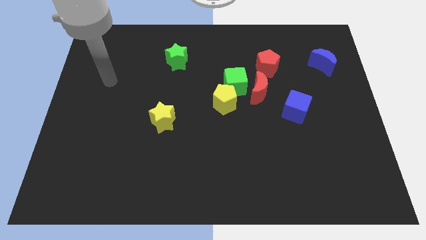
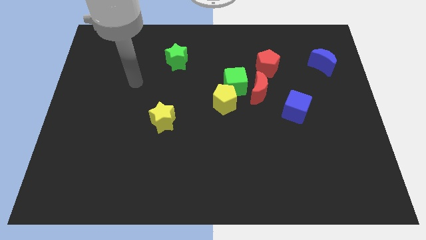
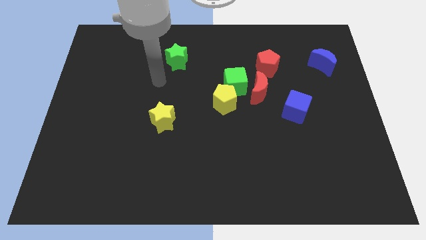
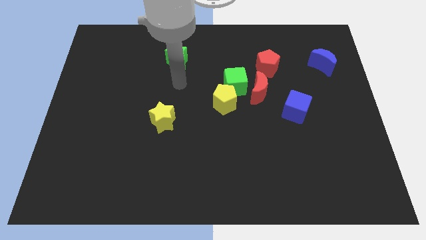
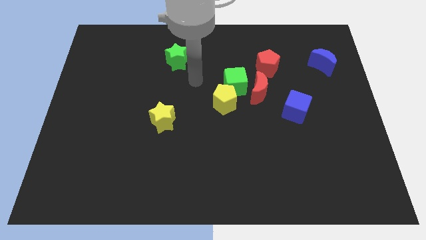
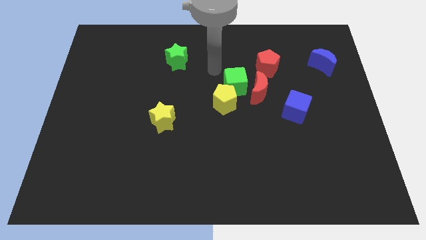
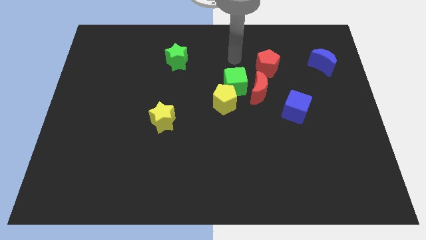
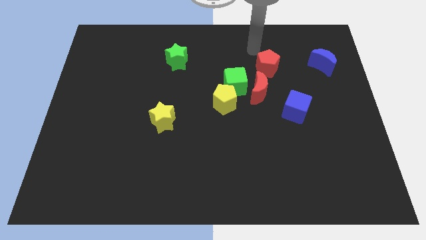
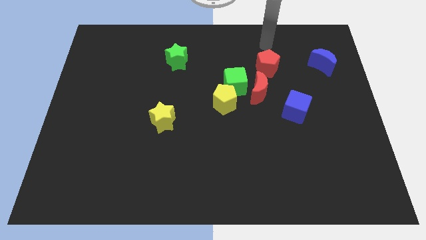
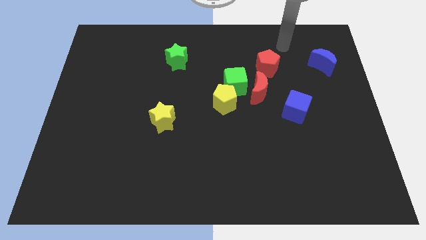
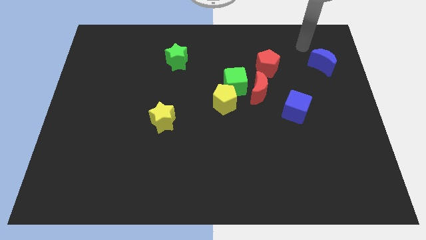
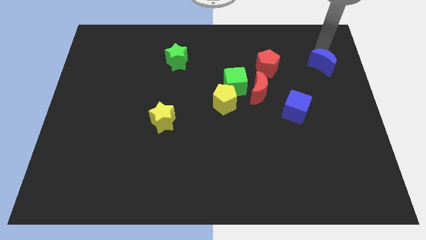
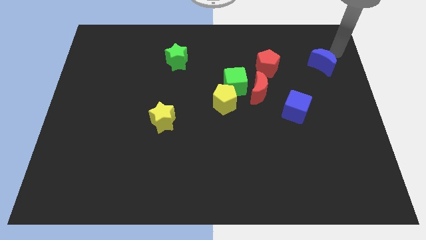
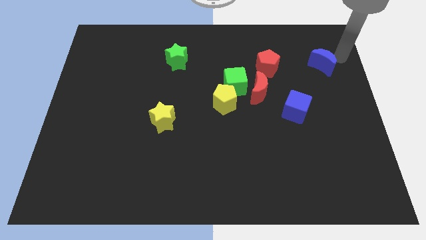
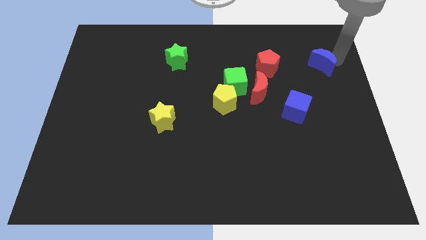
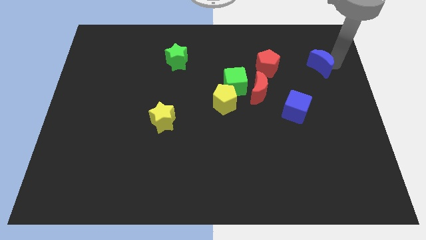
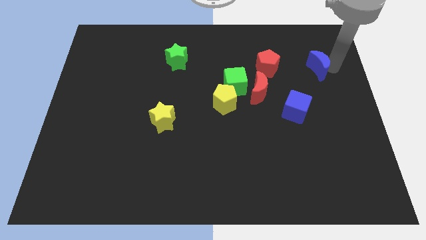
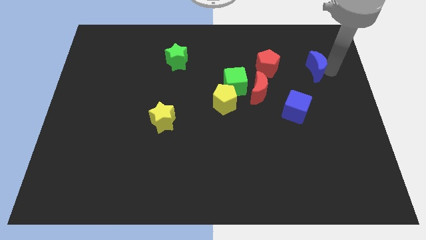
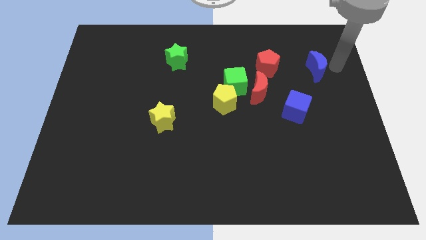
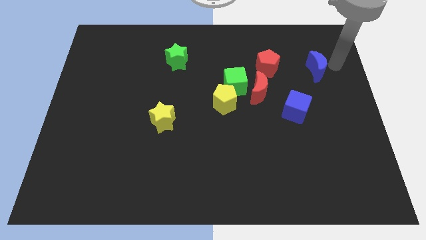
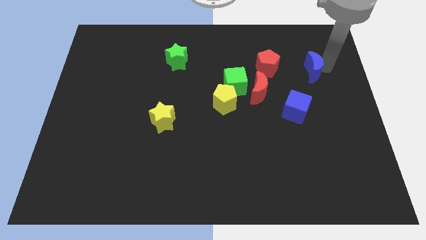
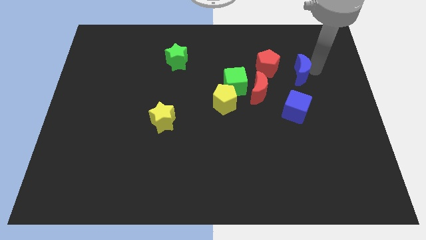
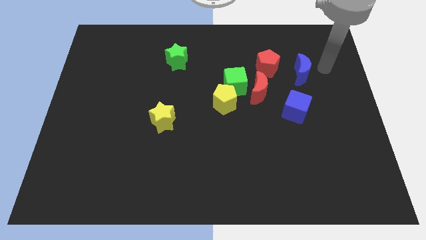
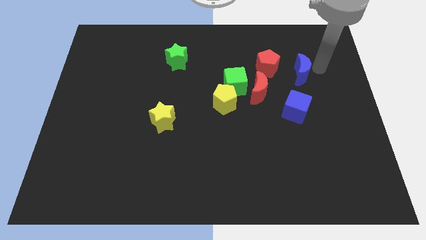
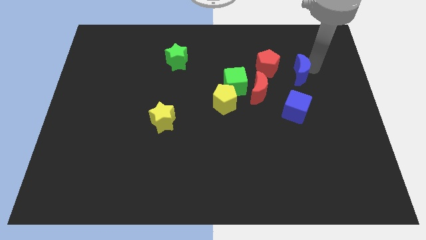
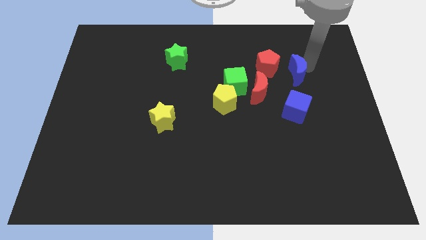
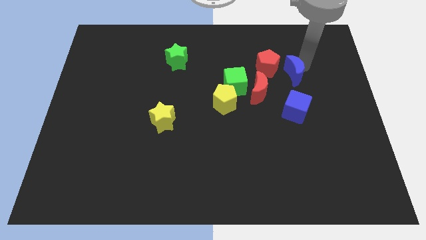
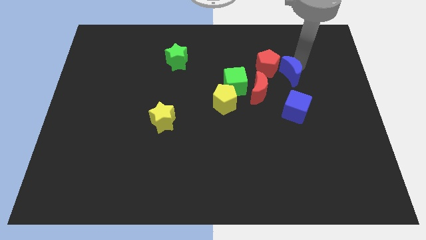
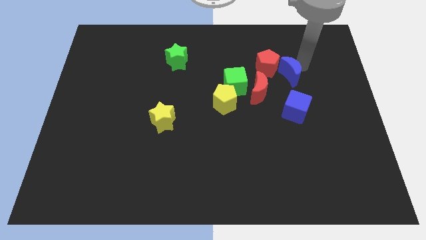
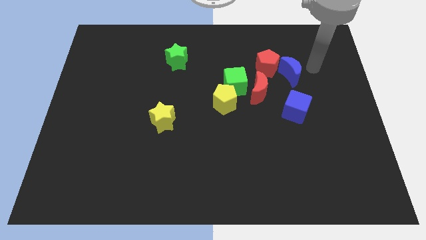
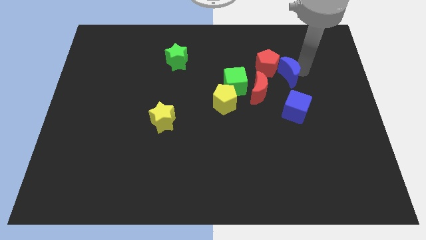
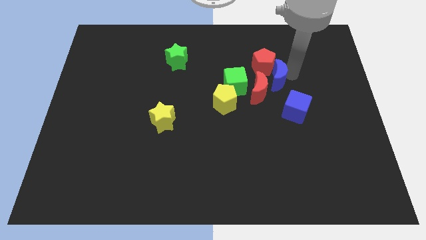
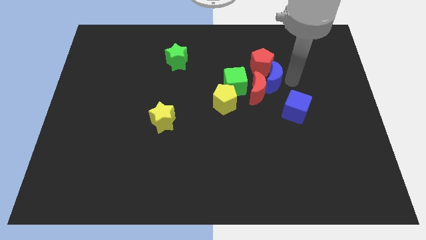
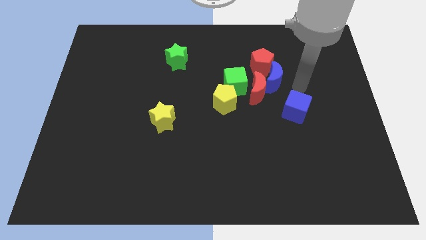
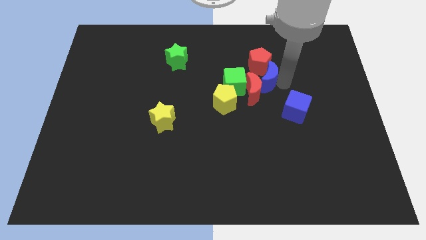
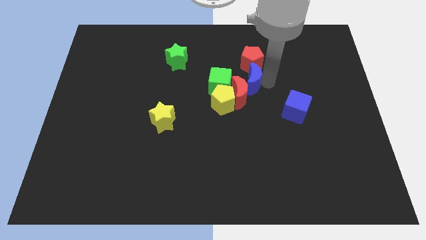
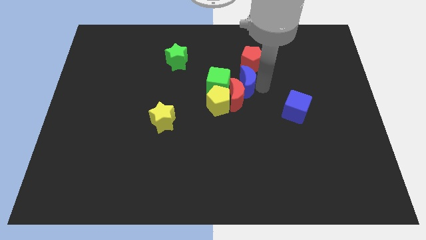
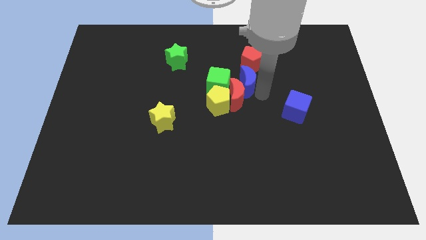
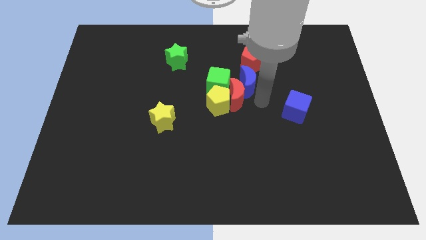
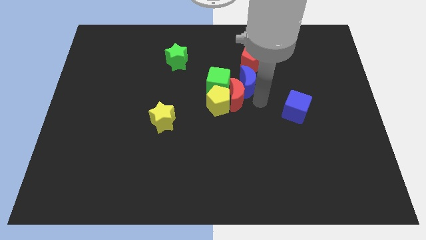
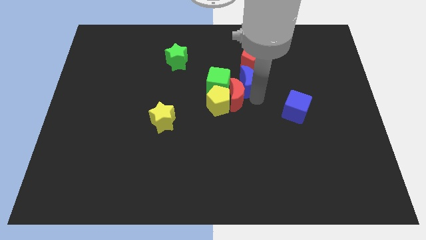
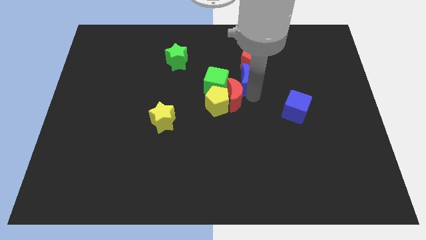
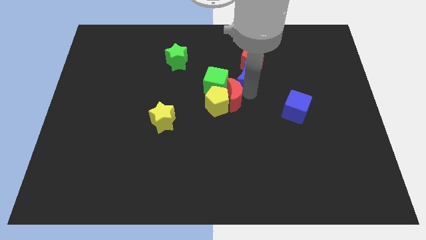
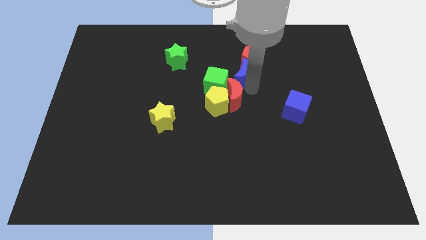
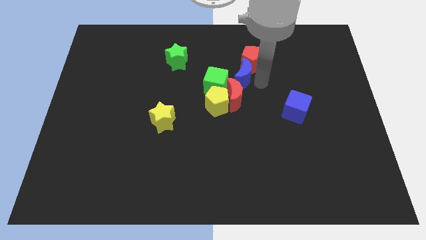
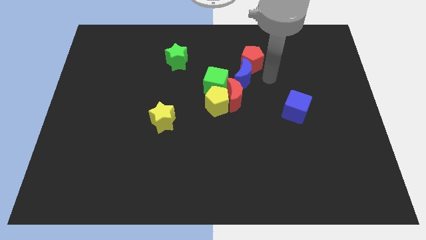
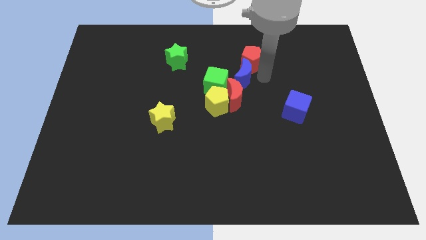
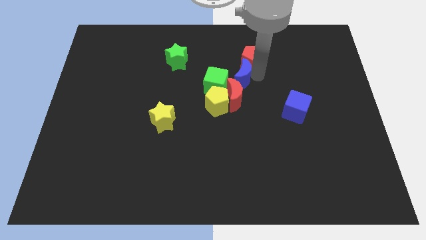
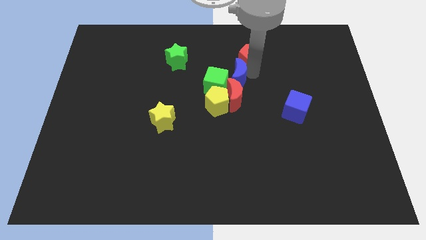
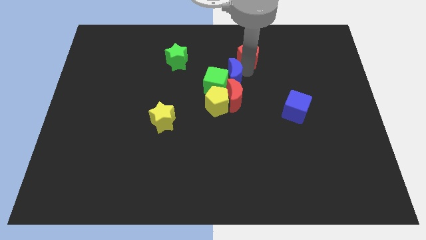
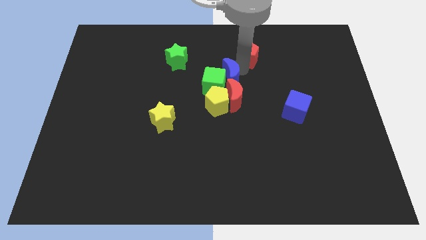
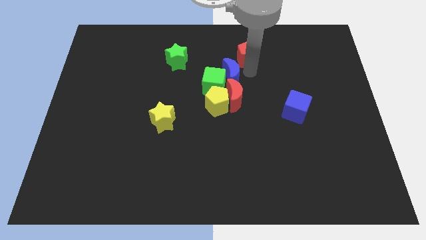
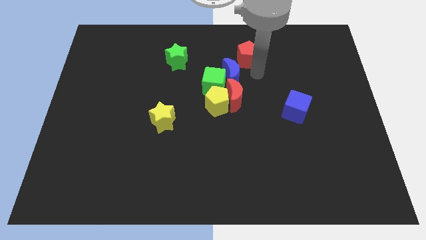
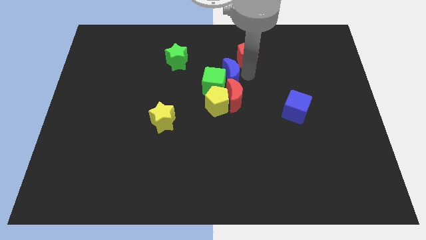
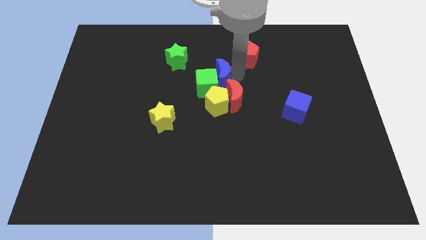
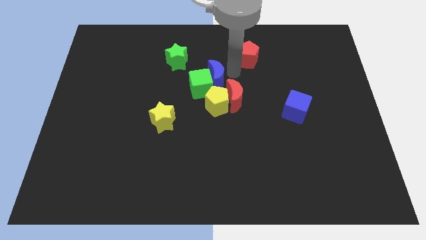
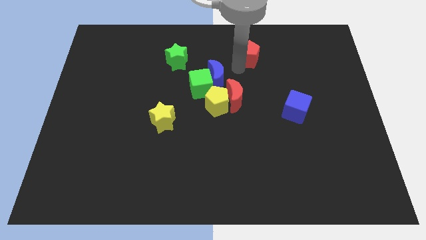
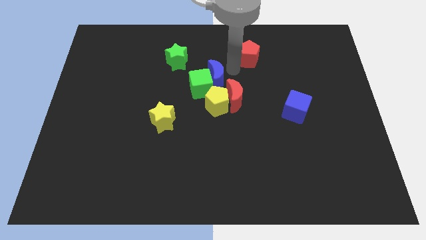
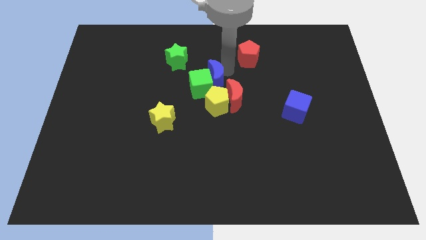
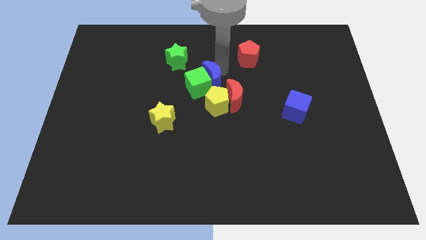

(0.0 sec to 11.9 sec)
slide the blue moon to the top left side of the yellow pentagon

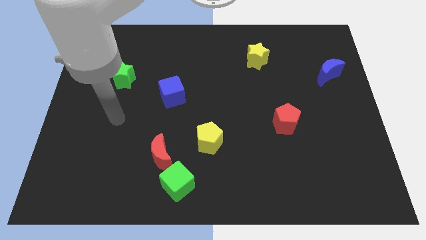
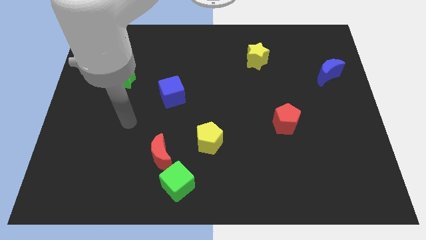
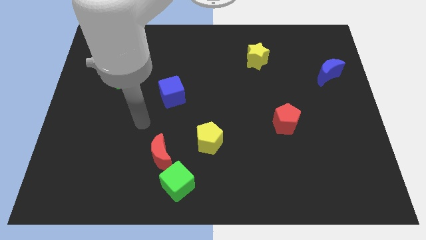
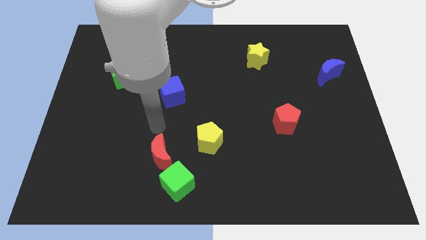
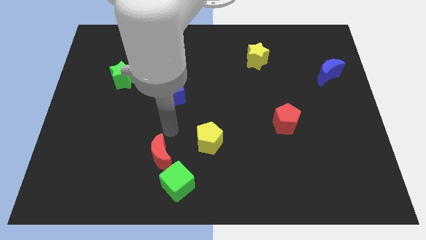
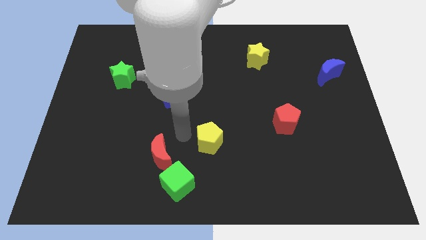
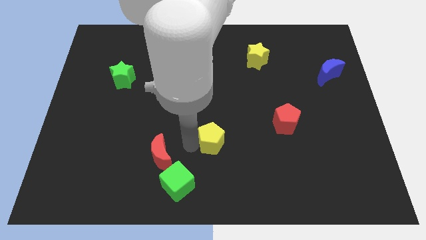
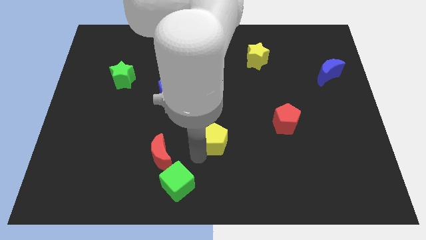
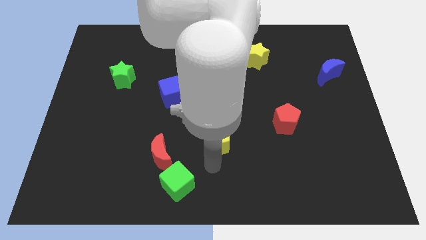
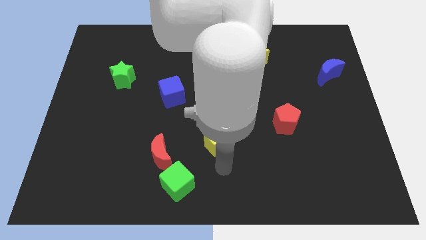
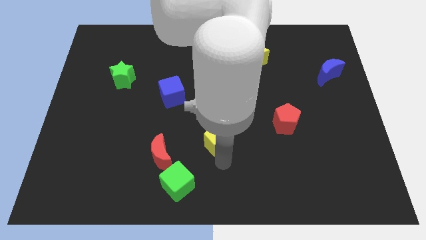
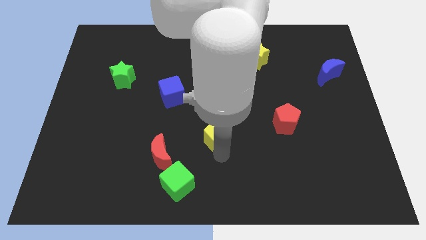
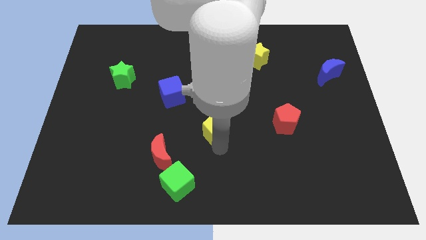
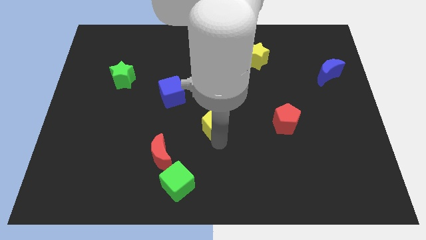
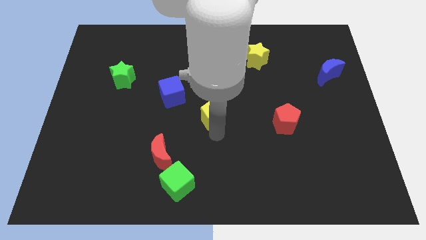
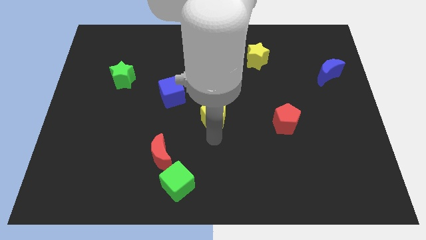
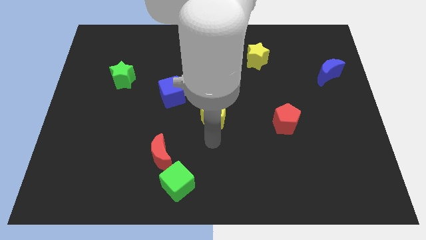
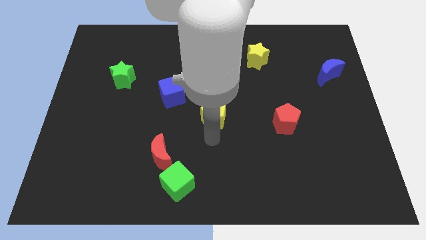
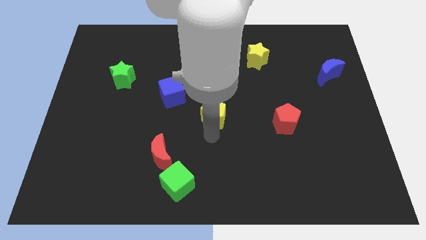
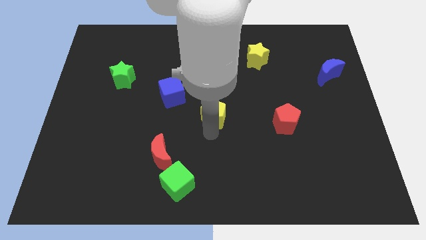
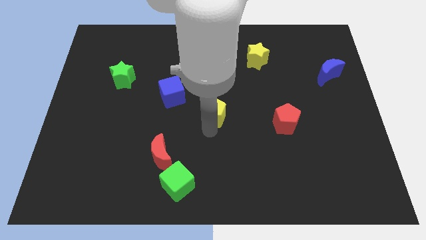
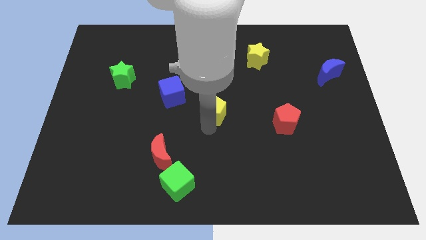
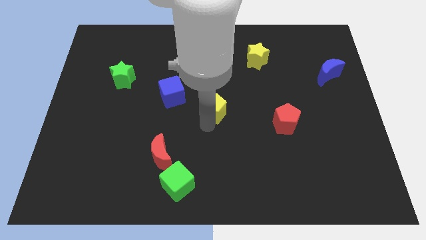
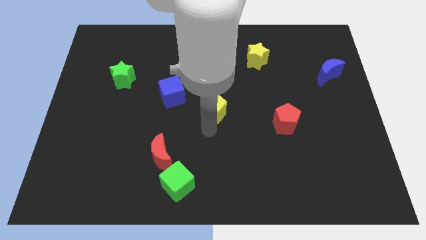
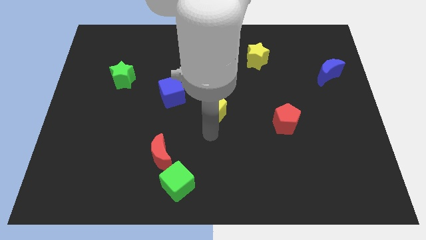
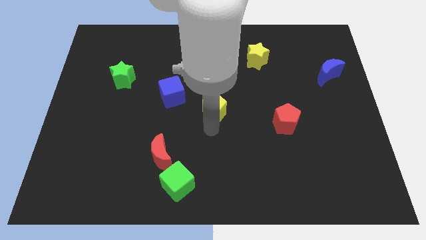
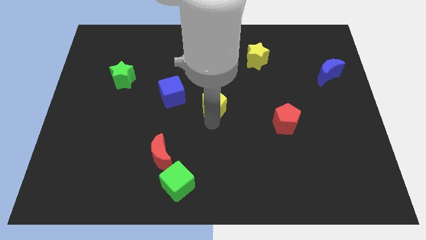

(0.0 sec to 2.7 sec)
move the yellow pentagon right of the blue cube
